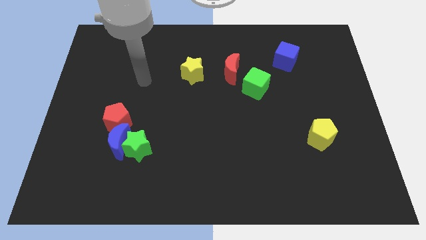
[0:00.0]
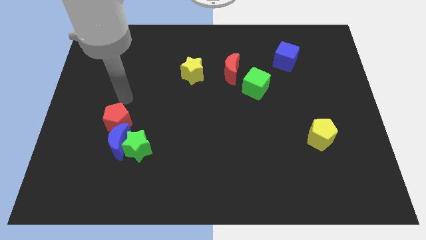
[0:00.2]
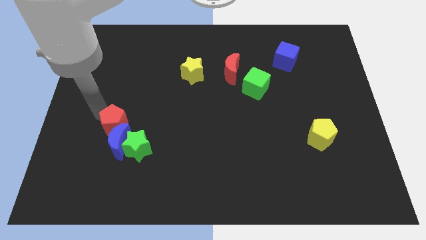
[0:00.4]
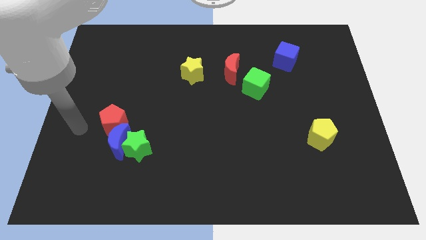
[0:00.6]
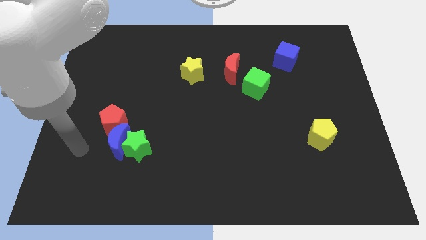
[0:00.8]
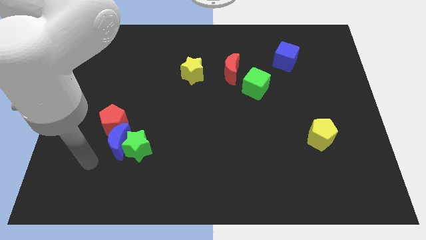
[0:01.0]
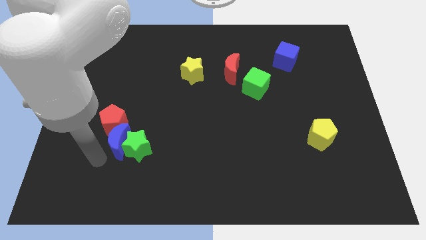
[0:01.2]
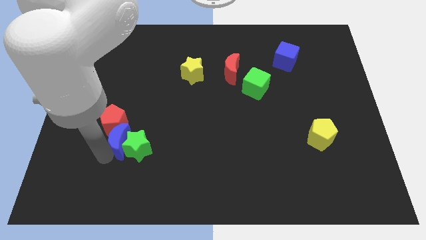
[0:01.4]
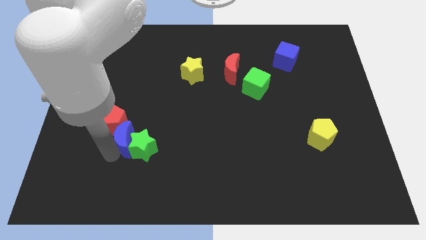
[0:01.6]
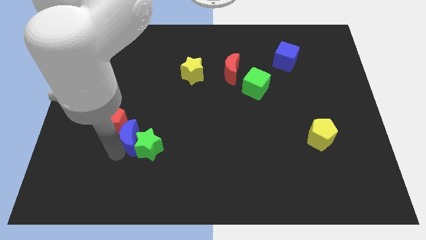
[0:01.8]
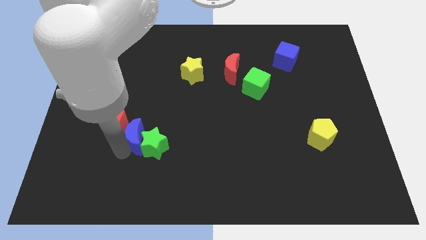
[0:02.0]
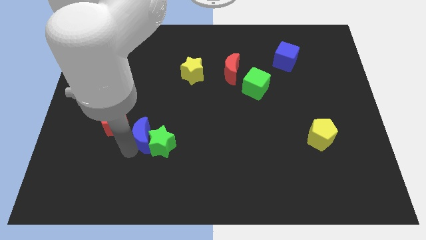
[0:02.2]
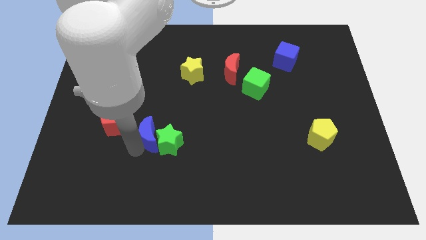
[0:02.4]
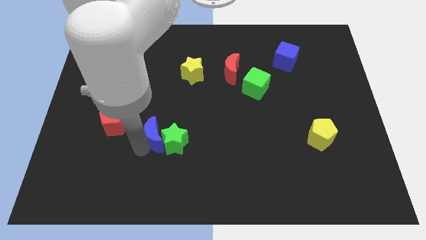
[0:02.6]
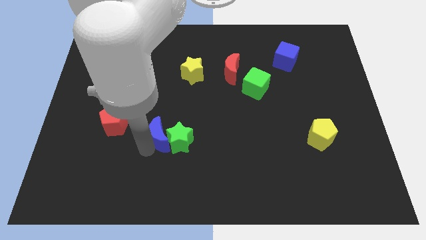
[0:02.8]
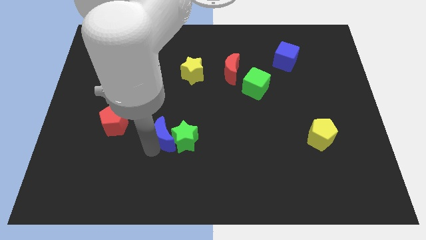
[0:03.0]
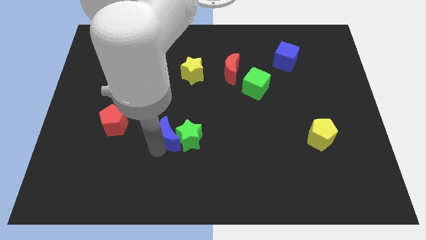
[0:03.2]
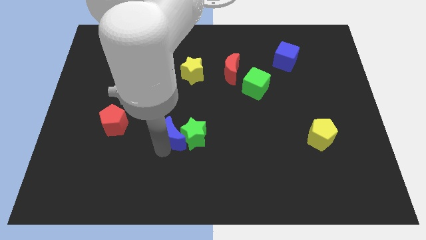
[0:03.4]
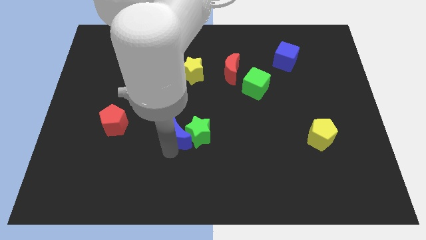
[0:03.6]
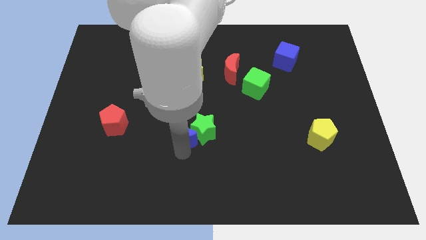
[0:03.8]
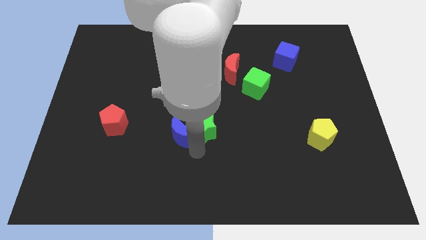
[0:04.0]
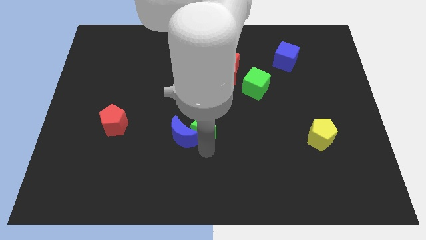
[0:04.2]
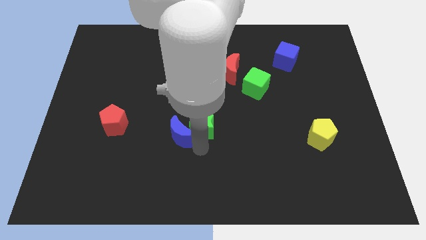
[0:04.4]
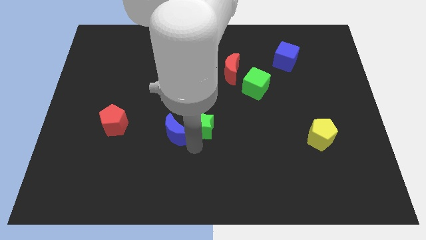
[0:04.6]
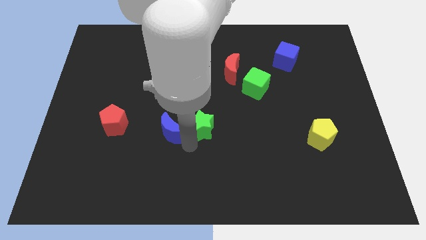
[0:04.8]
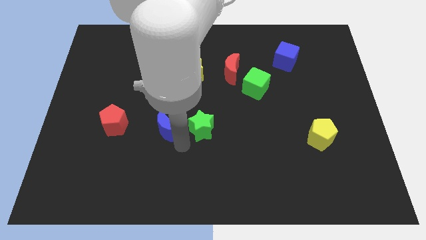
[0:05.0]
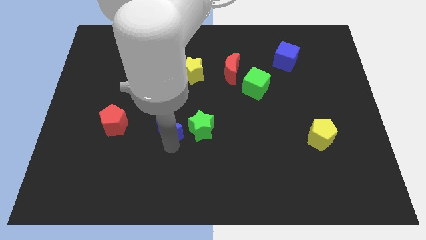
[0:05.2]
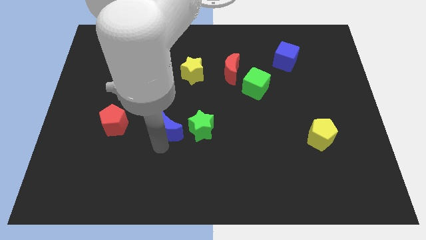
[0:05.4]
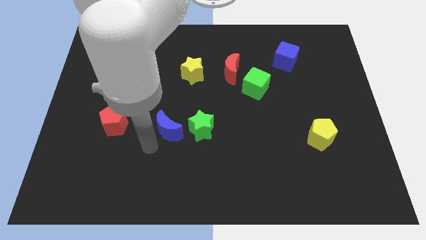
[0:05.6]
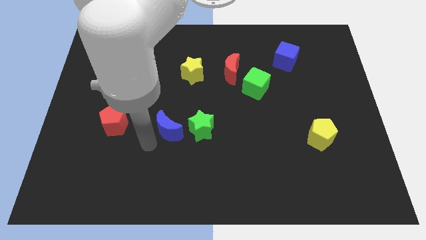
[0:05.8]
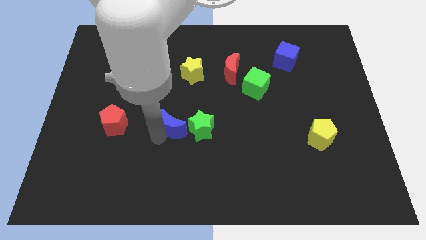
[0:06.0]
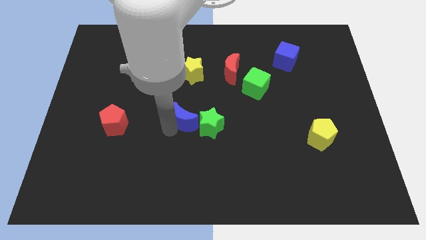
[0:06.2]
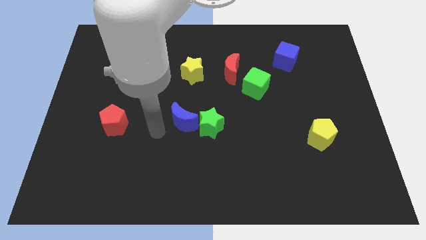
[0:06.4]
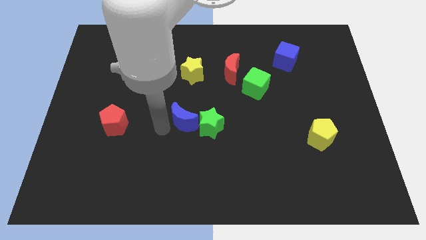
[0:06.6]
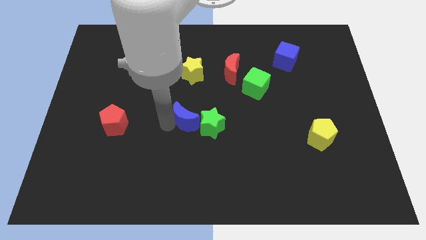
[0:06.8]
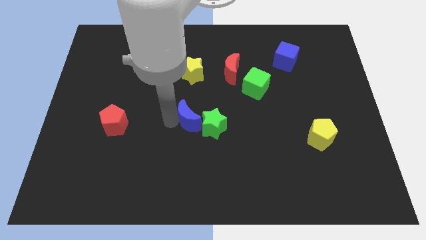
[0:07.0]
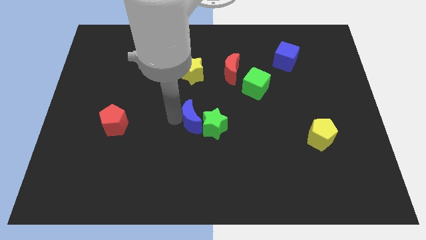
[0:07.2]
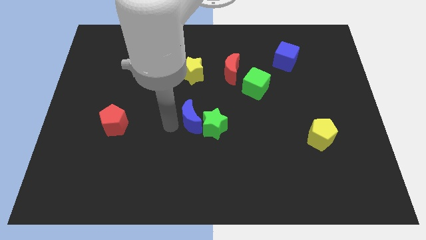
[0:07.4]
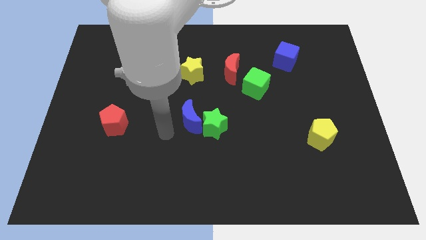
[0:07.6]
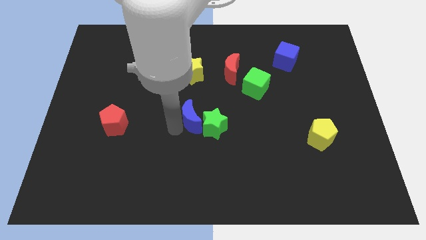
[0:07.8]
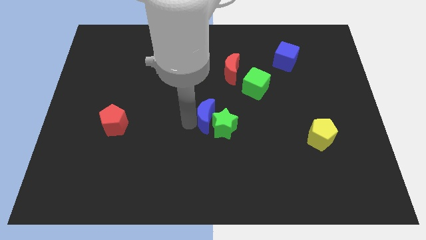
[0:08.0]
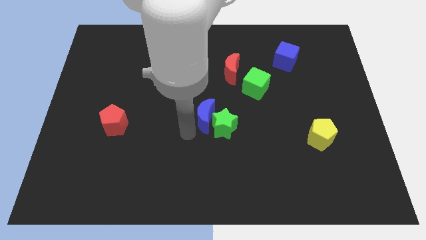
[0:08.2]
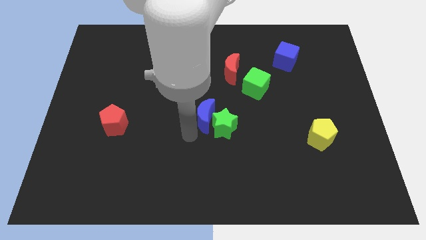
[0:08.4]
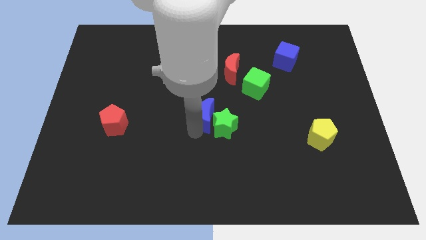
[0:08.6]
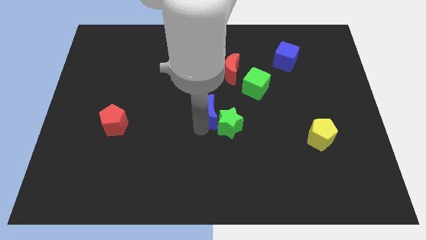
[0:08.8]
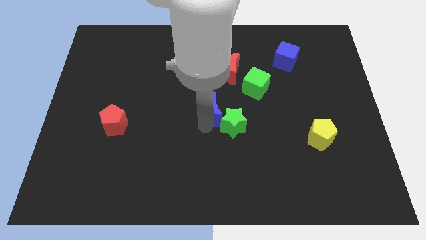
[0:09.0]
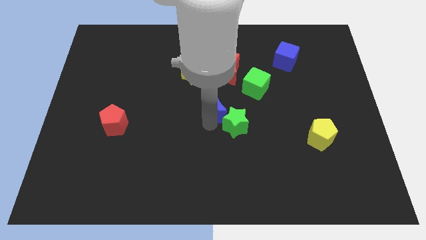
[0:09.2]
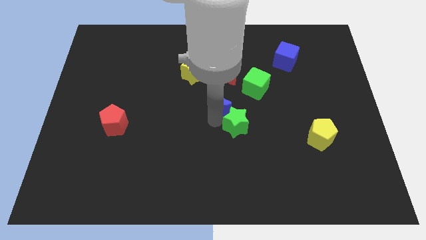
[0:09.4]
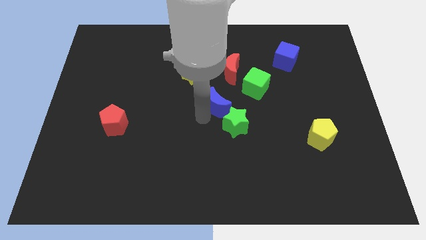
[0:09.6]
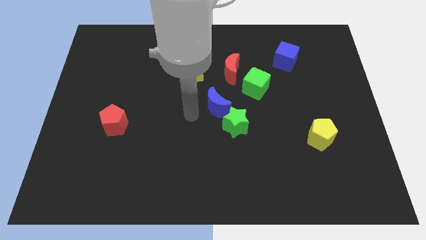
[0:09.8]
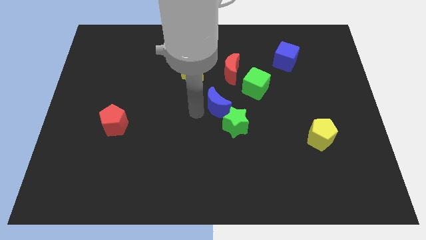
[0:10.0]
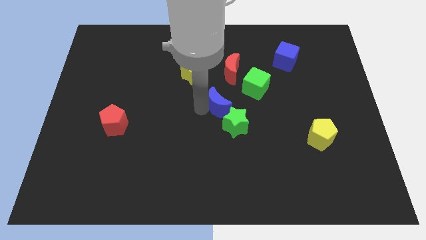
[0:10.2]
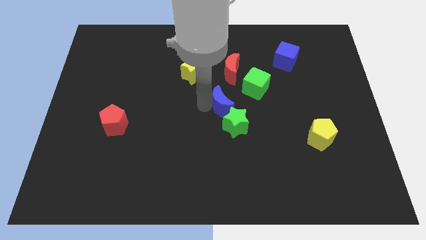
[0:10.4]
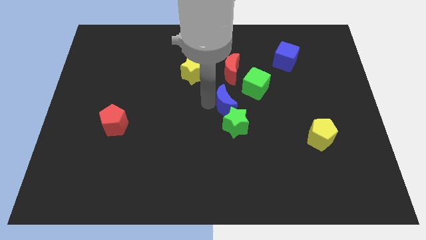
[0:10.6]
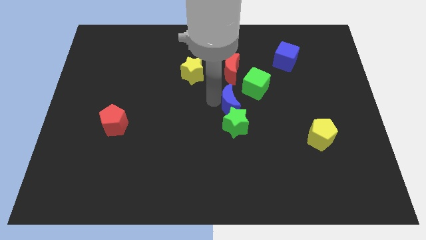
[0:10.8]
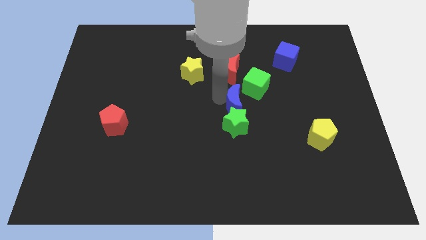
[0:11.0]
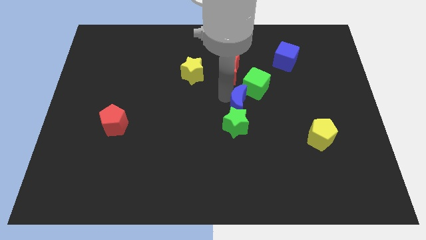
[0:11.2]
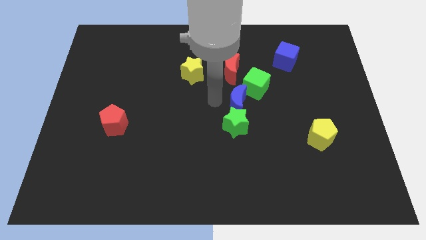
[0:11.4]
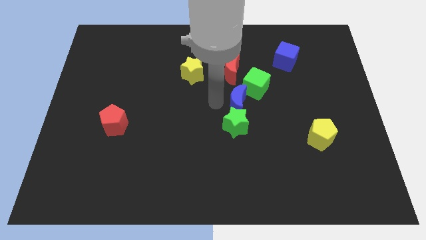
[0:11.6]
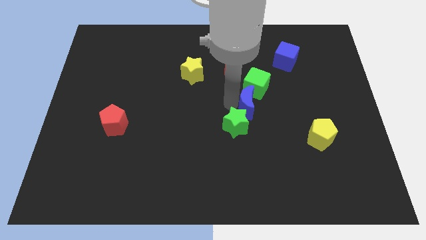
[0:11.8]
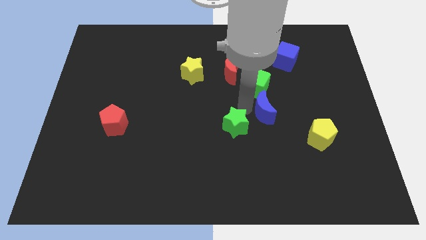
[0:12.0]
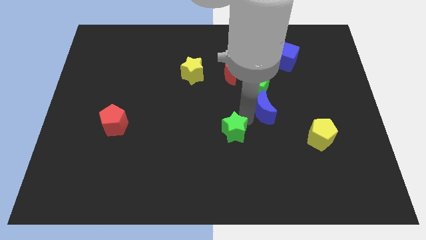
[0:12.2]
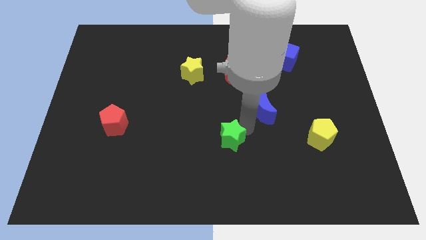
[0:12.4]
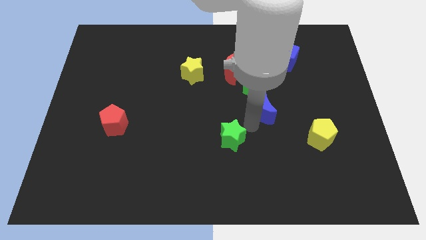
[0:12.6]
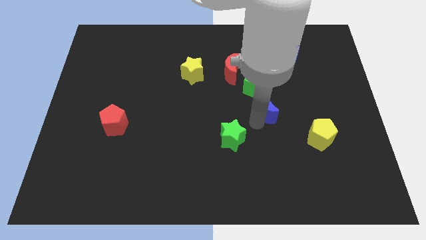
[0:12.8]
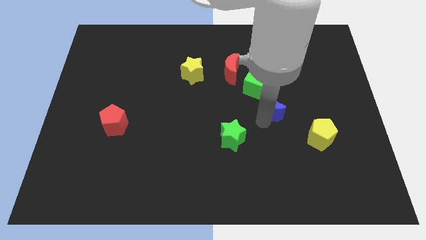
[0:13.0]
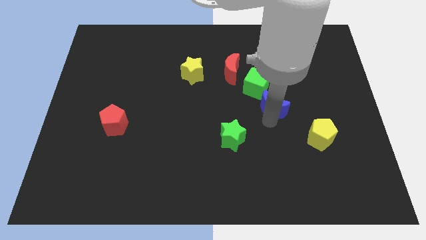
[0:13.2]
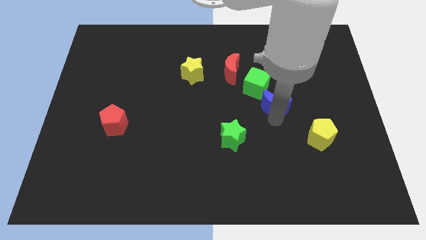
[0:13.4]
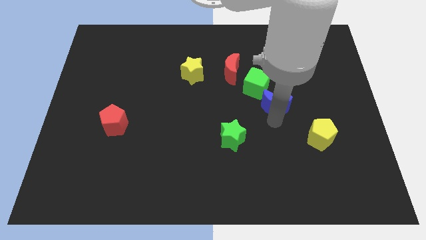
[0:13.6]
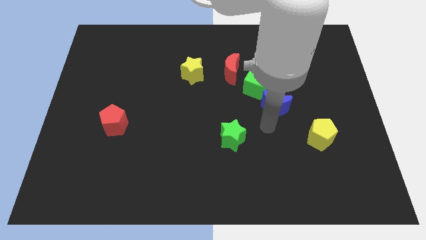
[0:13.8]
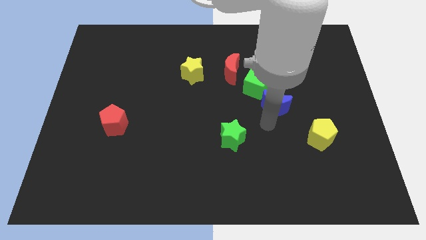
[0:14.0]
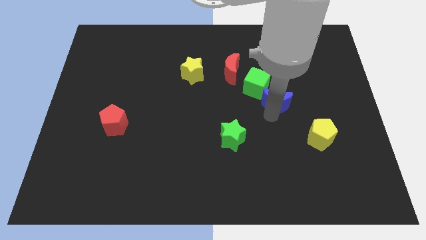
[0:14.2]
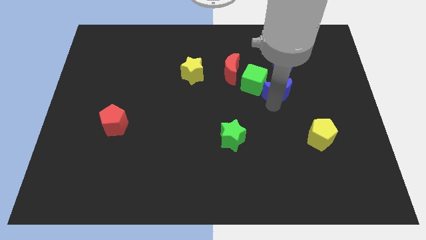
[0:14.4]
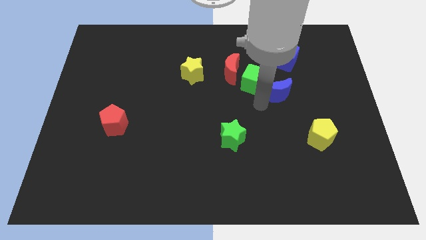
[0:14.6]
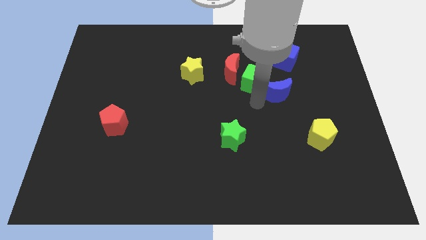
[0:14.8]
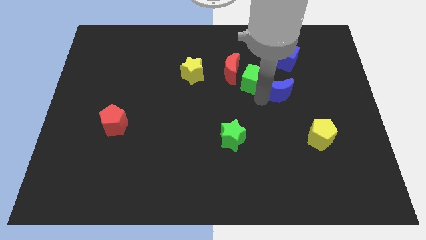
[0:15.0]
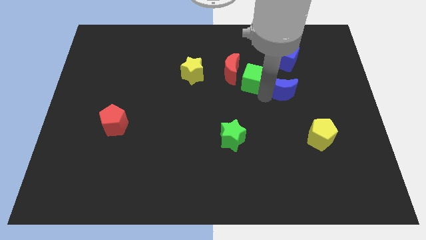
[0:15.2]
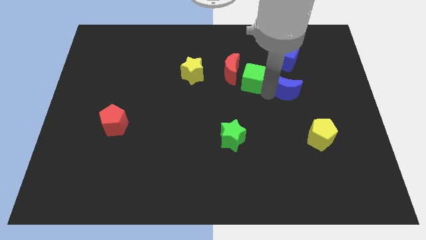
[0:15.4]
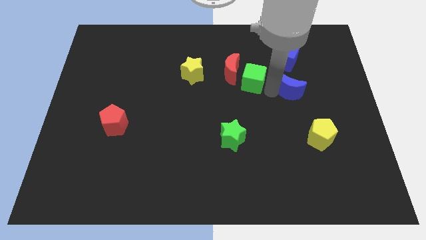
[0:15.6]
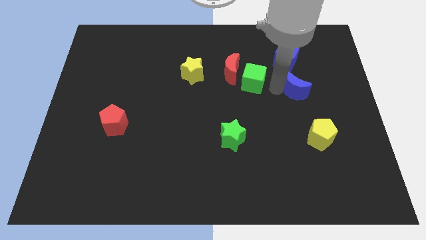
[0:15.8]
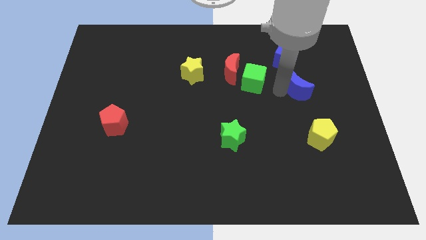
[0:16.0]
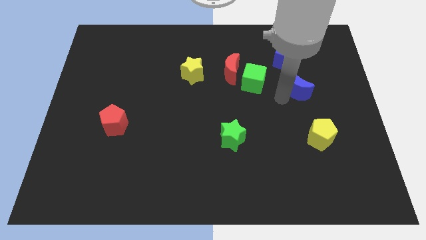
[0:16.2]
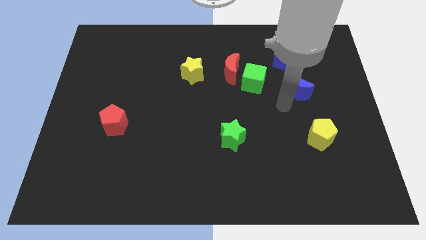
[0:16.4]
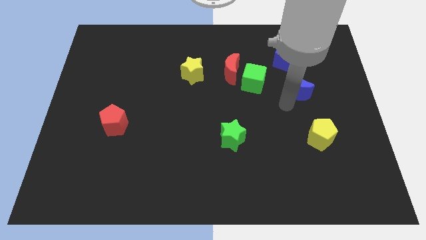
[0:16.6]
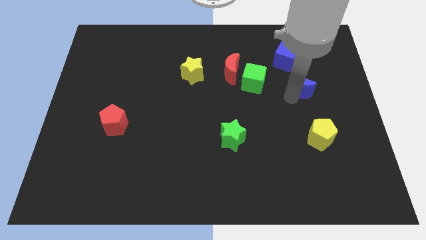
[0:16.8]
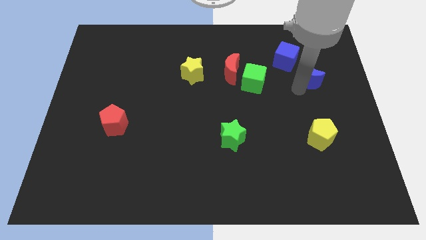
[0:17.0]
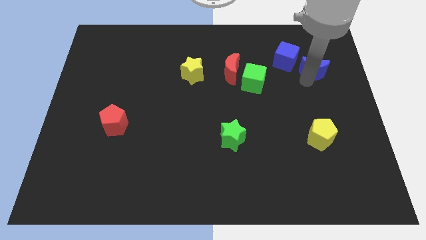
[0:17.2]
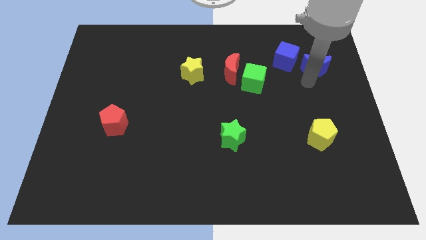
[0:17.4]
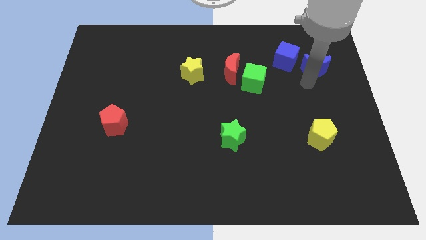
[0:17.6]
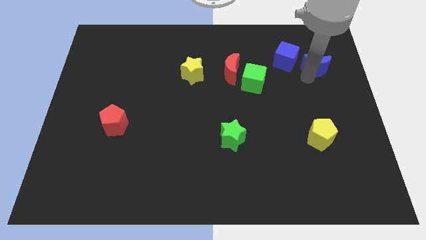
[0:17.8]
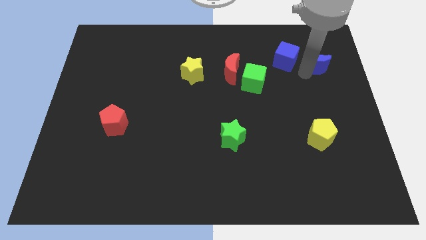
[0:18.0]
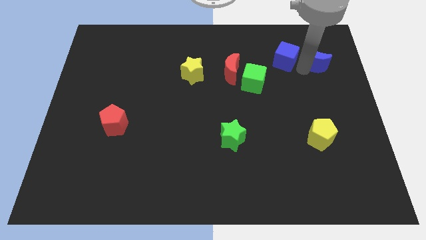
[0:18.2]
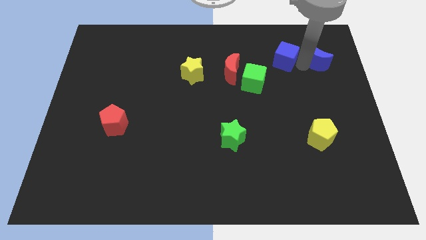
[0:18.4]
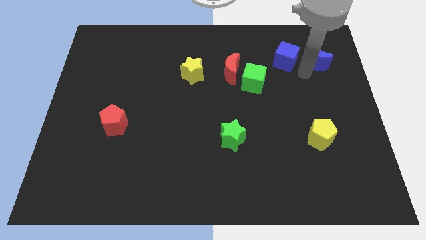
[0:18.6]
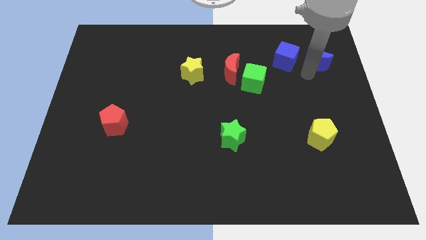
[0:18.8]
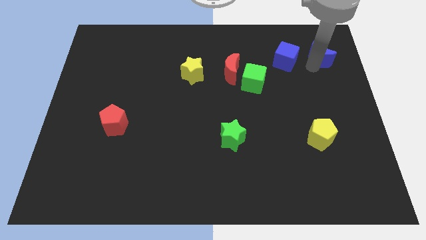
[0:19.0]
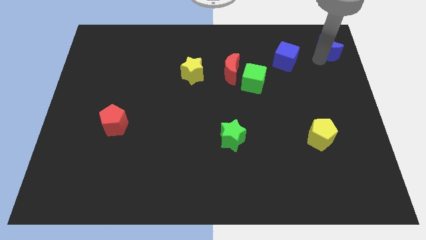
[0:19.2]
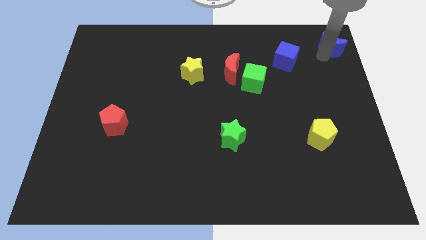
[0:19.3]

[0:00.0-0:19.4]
slide the blue moon to the top right
